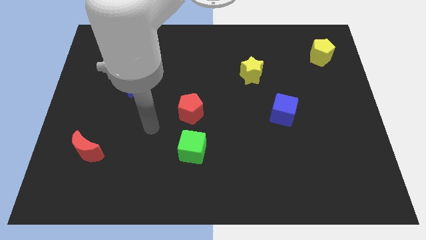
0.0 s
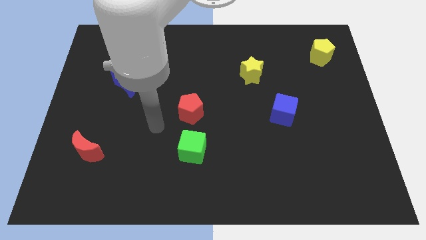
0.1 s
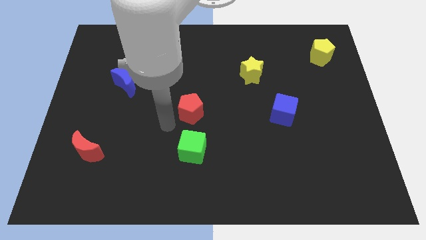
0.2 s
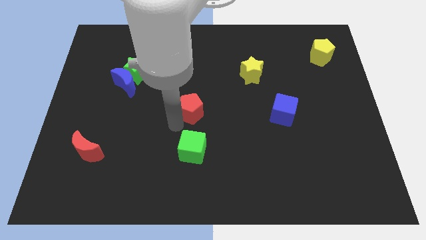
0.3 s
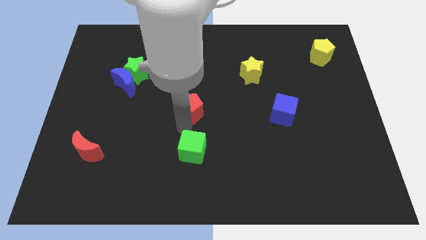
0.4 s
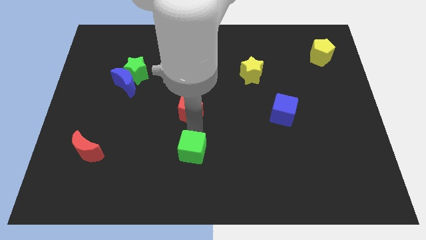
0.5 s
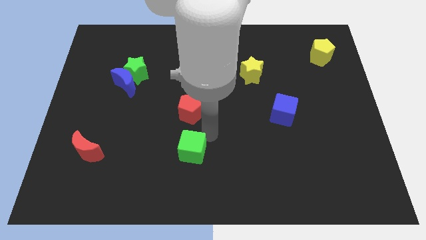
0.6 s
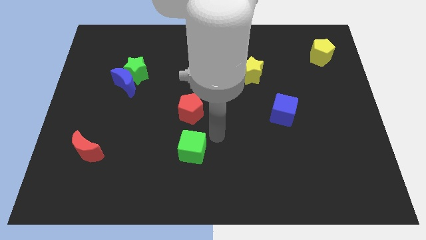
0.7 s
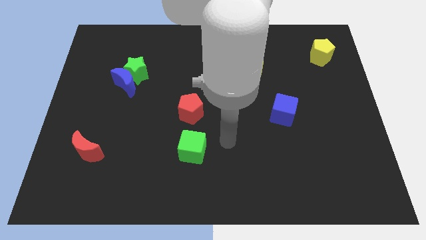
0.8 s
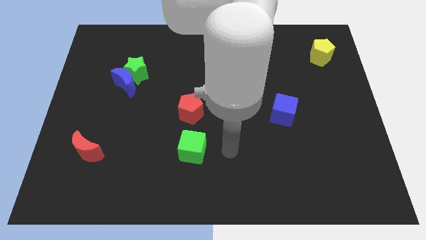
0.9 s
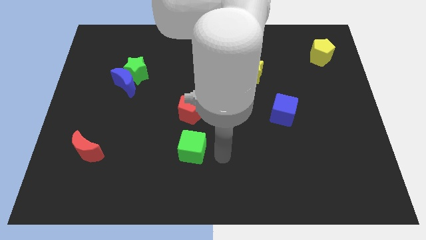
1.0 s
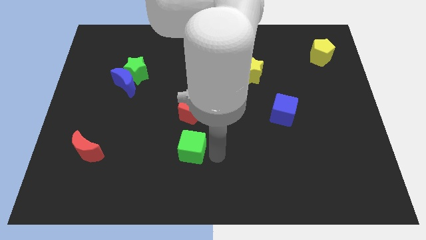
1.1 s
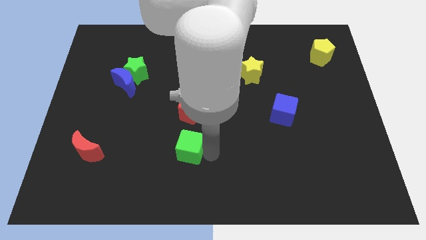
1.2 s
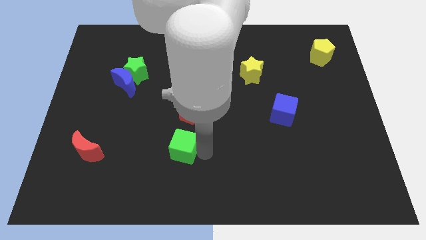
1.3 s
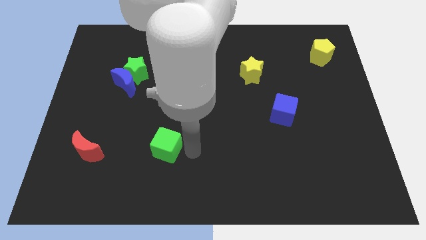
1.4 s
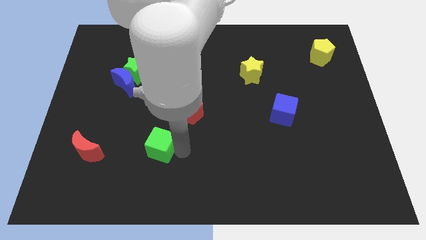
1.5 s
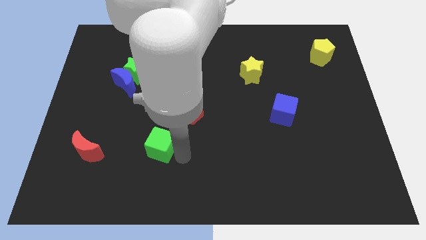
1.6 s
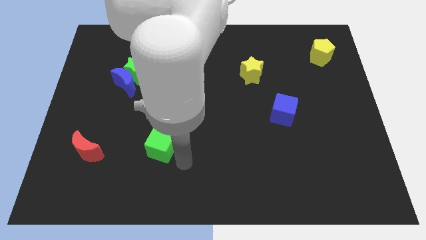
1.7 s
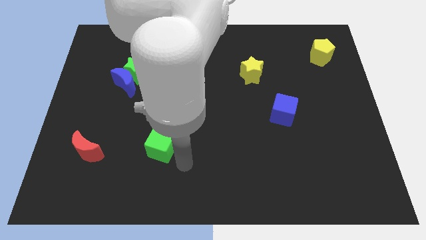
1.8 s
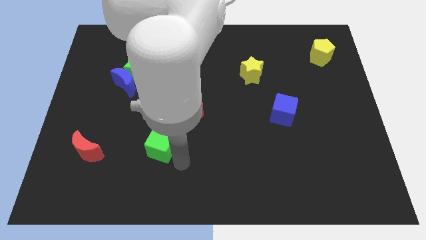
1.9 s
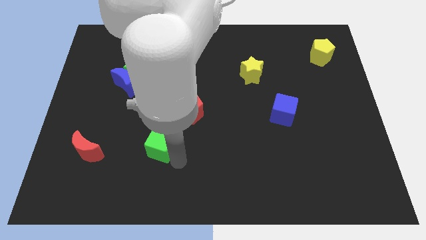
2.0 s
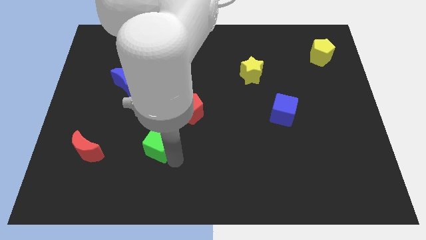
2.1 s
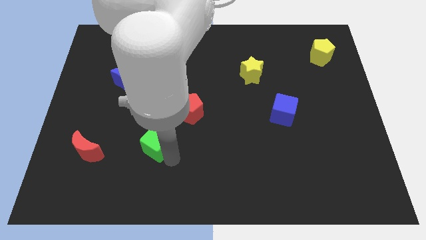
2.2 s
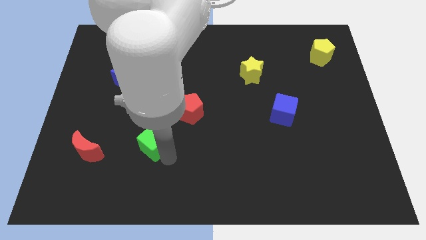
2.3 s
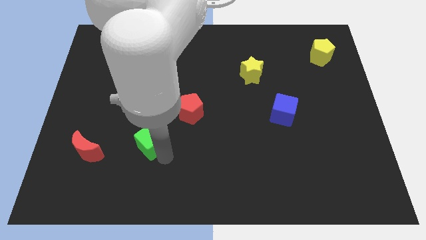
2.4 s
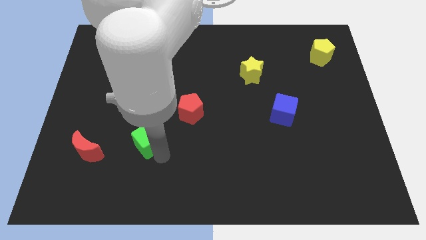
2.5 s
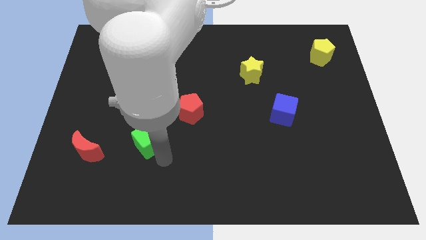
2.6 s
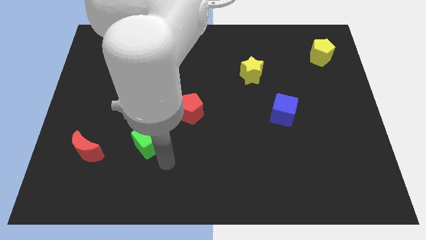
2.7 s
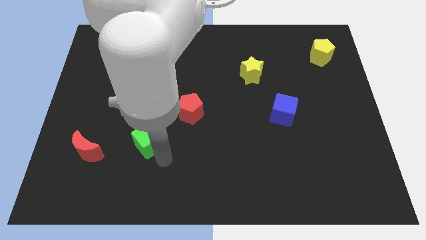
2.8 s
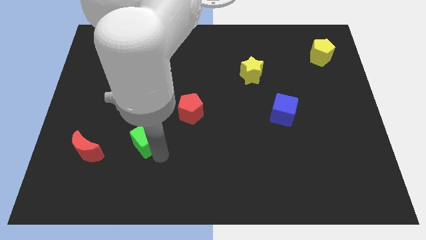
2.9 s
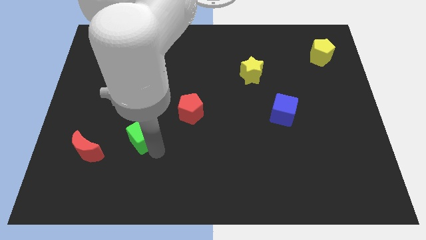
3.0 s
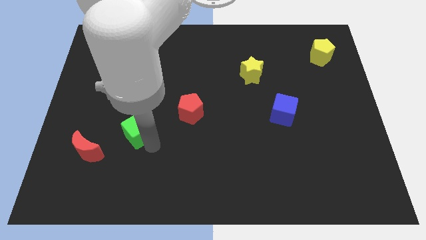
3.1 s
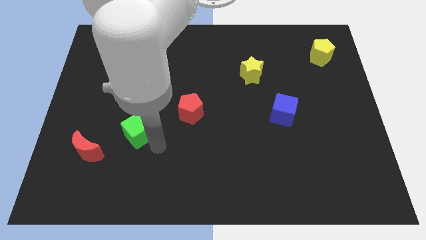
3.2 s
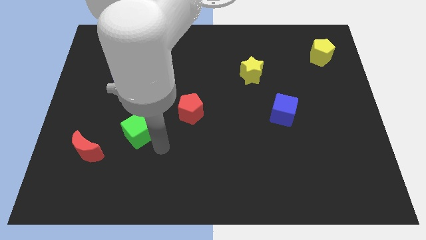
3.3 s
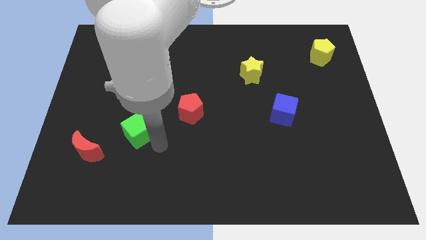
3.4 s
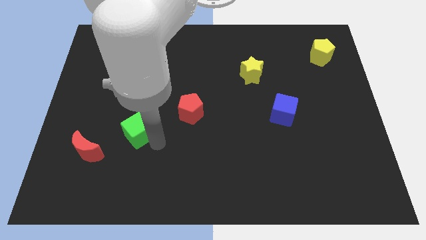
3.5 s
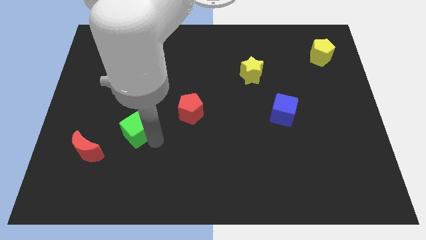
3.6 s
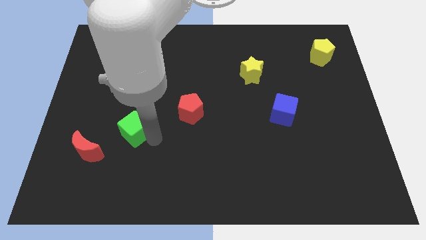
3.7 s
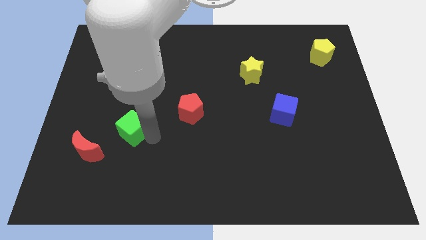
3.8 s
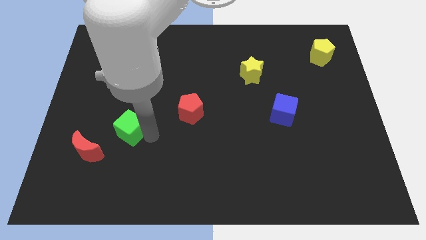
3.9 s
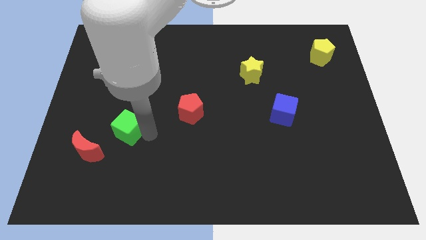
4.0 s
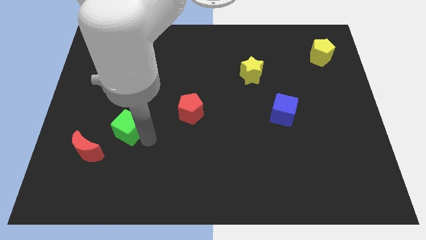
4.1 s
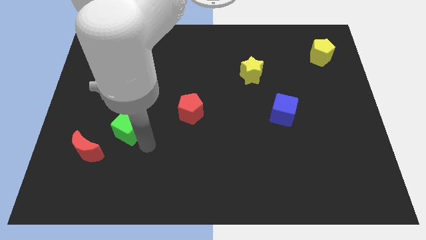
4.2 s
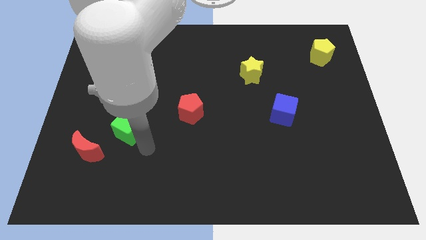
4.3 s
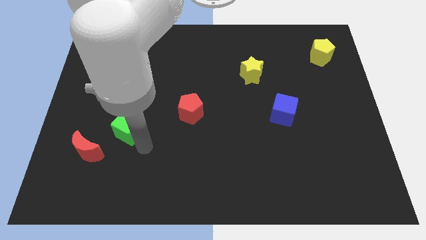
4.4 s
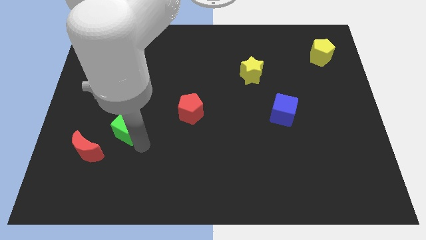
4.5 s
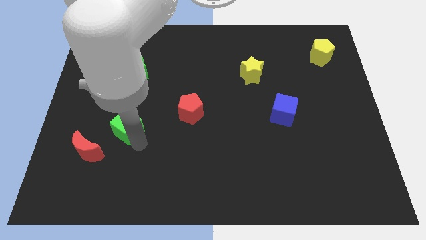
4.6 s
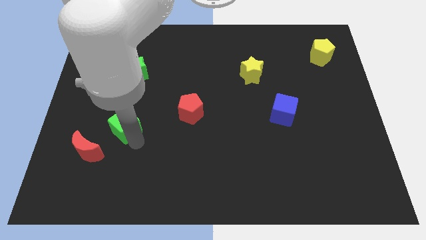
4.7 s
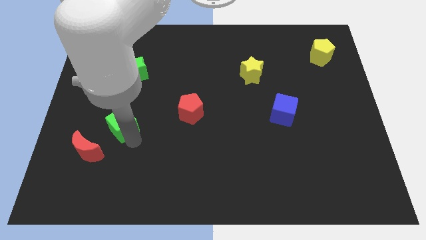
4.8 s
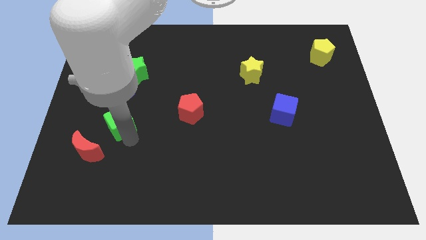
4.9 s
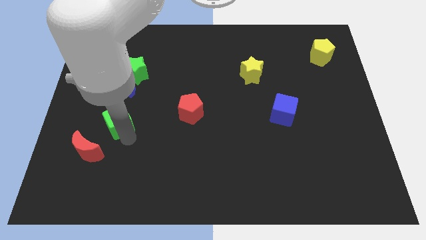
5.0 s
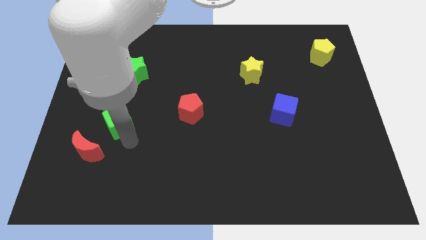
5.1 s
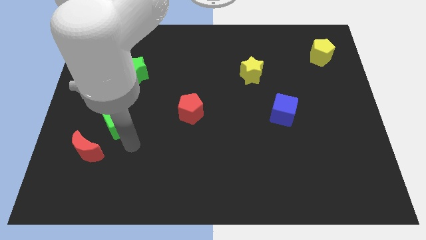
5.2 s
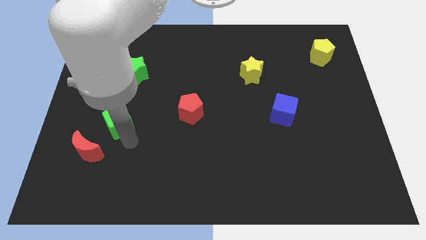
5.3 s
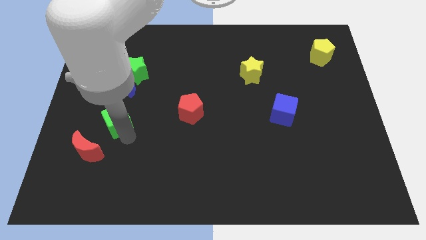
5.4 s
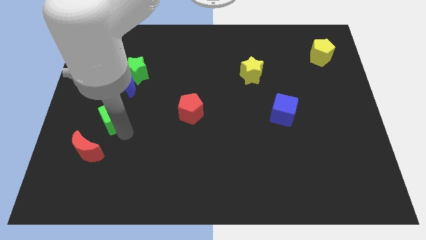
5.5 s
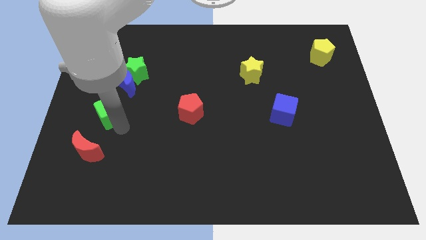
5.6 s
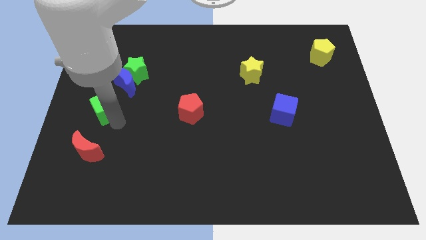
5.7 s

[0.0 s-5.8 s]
move the green cube to the bottom left side of the blue moon

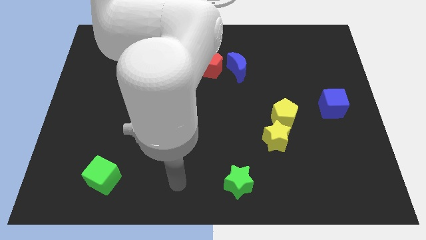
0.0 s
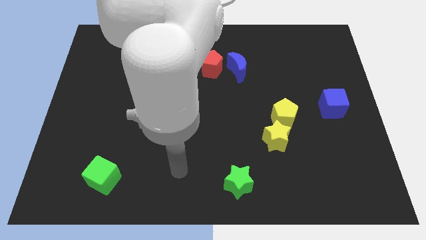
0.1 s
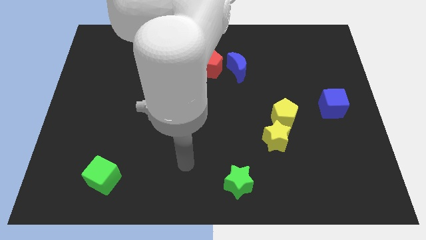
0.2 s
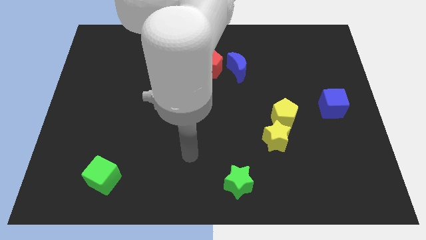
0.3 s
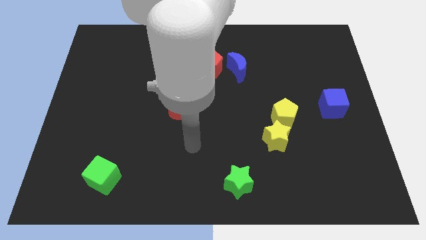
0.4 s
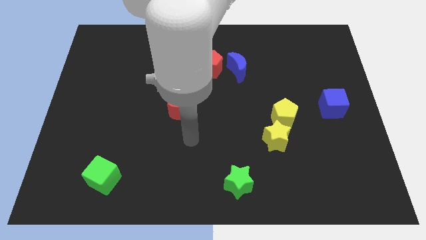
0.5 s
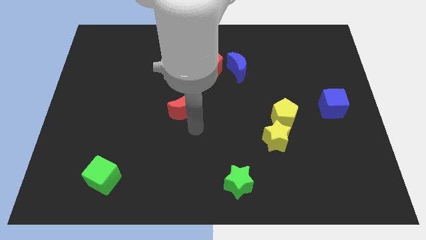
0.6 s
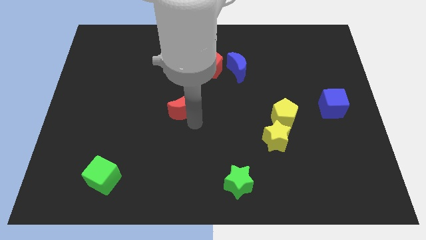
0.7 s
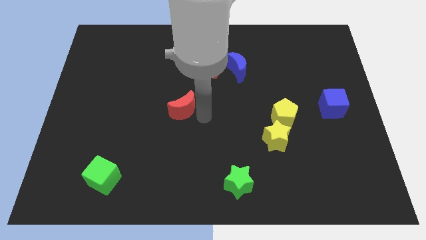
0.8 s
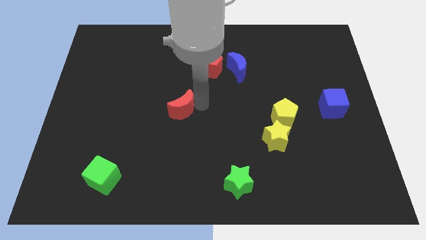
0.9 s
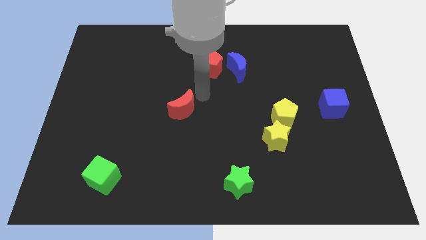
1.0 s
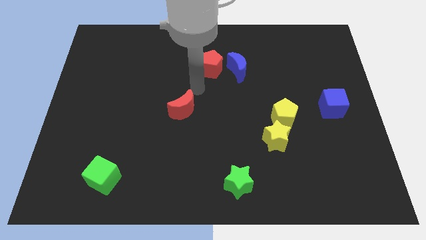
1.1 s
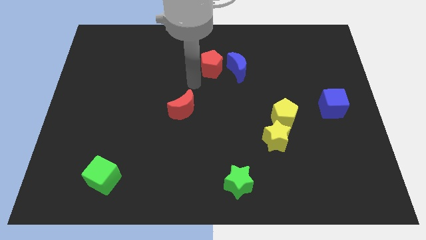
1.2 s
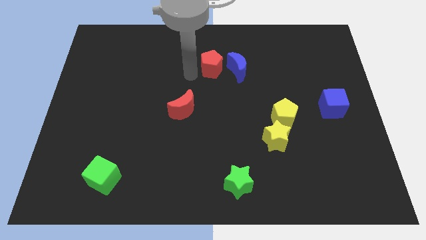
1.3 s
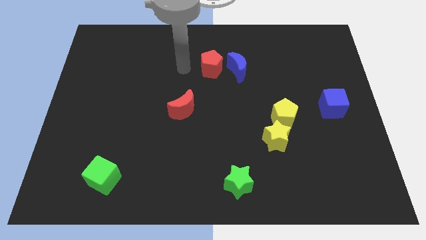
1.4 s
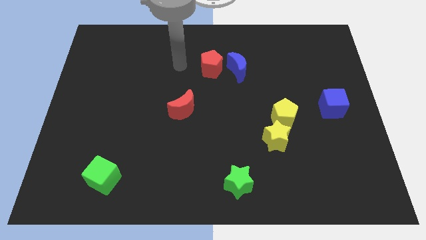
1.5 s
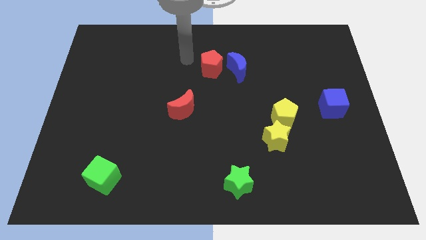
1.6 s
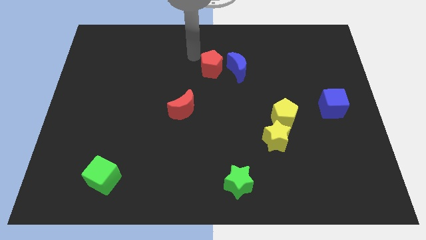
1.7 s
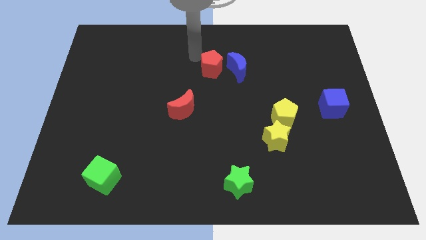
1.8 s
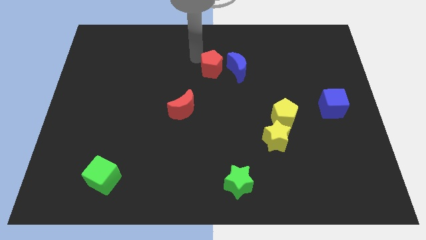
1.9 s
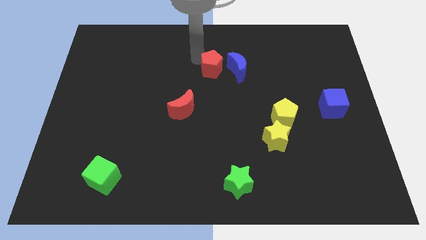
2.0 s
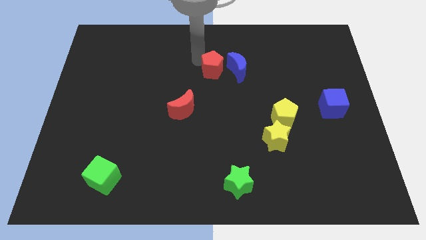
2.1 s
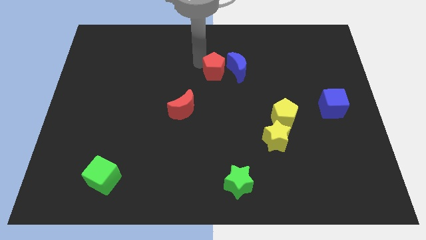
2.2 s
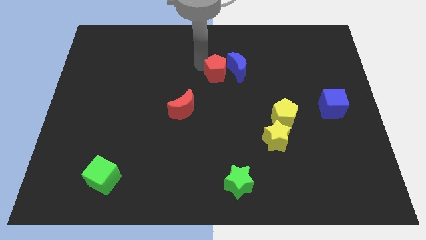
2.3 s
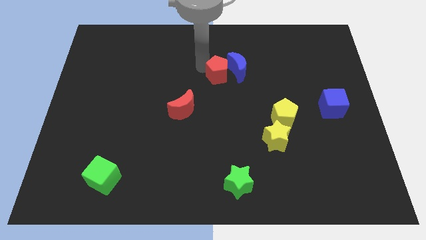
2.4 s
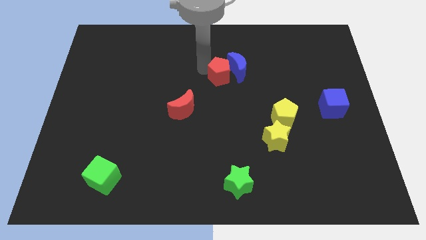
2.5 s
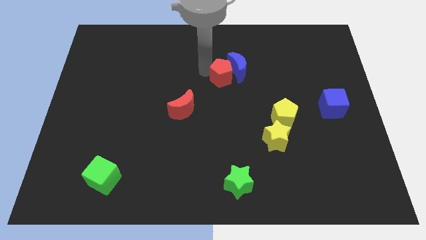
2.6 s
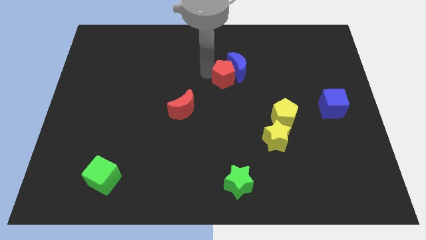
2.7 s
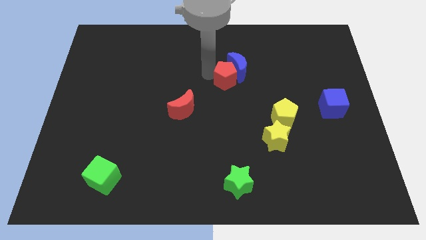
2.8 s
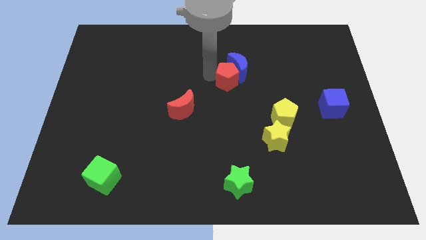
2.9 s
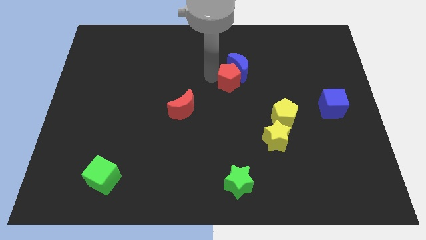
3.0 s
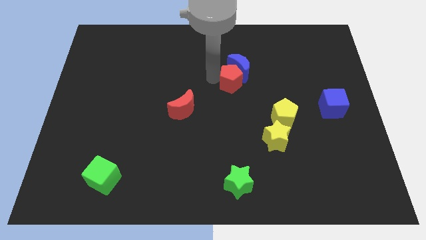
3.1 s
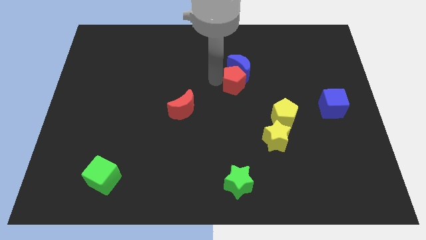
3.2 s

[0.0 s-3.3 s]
slide the red pentagon diagonally down and to the right of the blue moon
